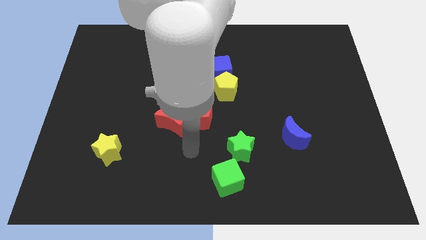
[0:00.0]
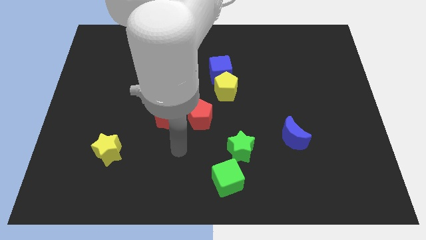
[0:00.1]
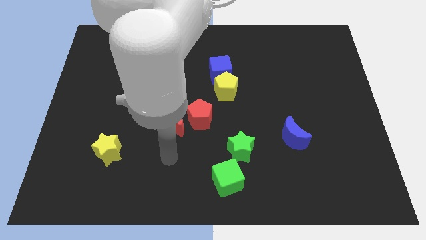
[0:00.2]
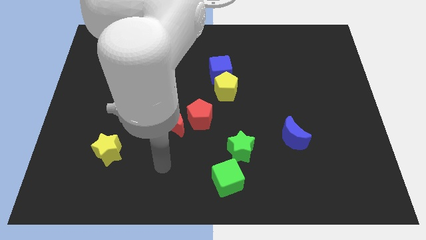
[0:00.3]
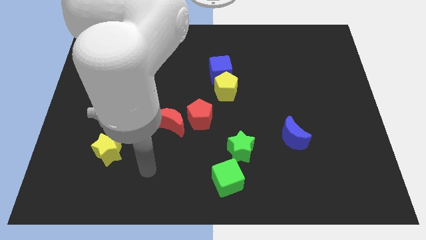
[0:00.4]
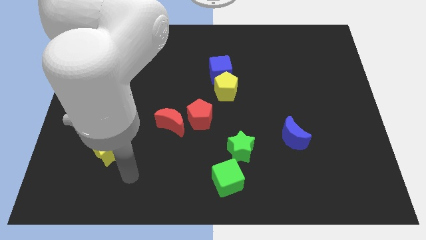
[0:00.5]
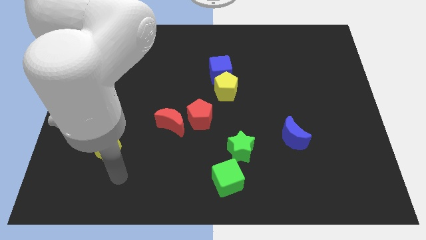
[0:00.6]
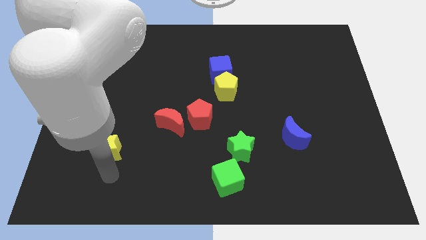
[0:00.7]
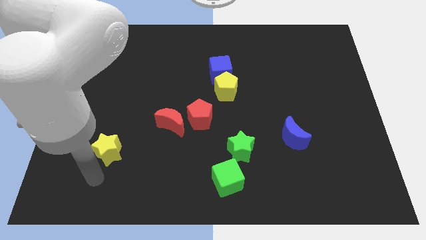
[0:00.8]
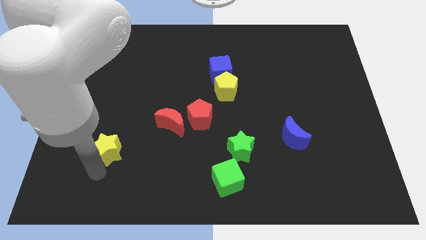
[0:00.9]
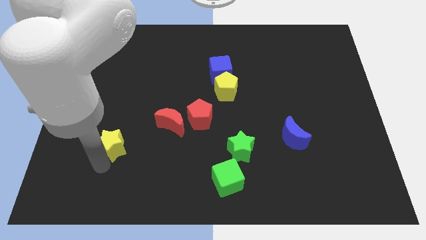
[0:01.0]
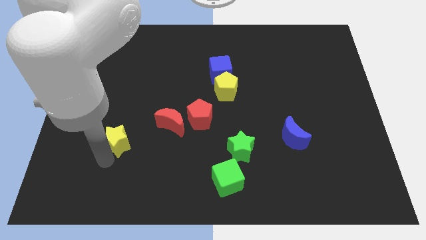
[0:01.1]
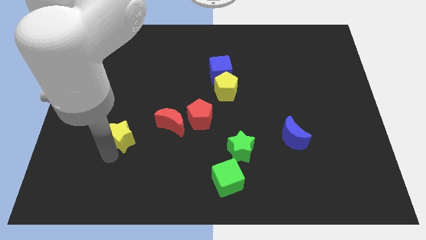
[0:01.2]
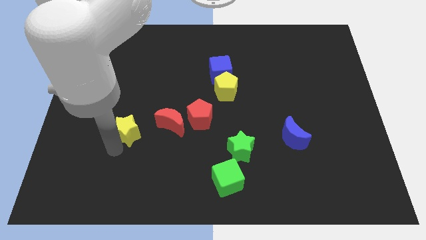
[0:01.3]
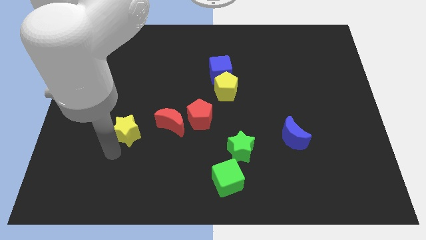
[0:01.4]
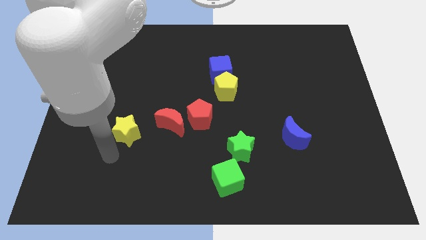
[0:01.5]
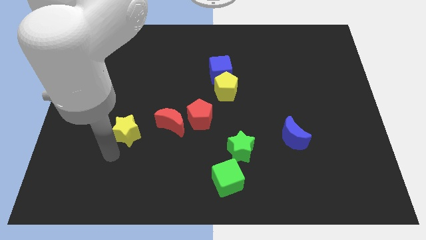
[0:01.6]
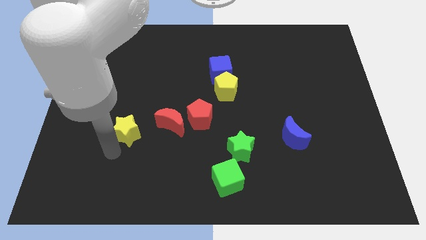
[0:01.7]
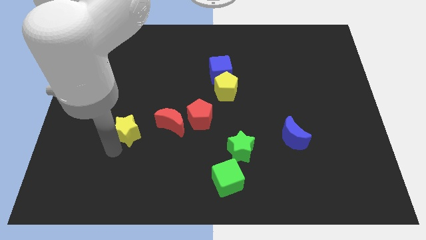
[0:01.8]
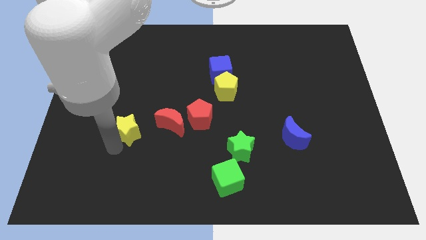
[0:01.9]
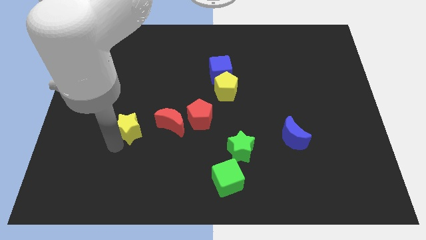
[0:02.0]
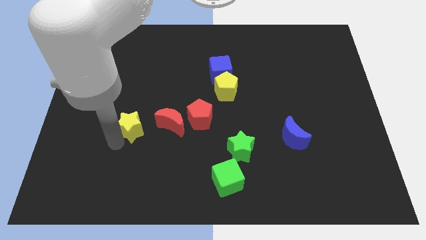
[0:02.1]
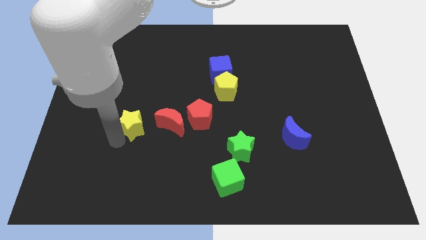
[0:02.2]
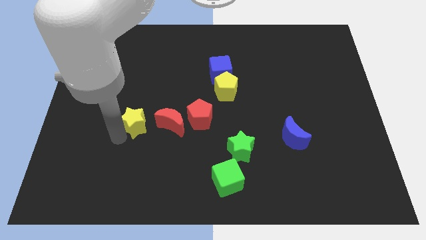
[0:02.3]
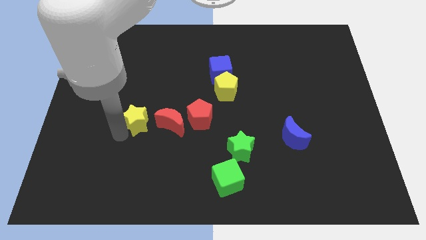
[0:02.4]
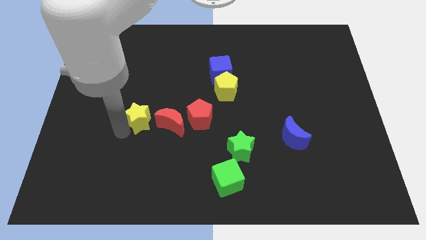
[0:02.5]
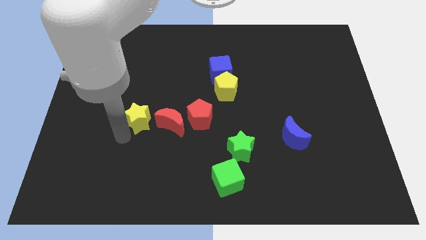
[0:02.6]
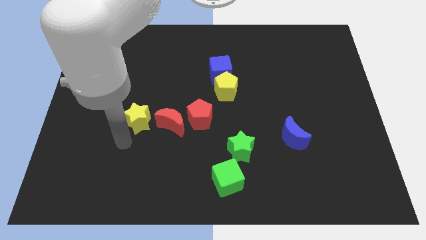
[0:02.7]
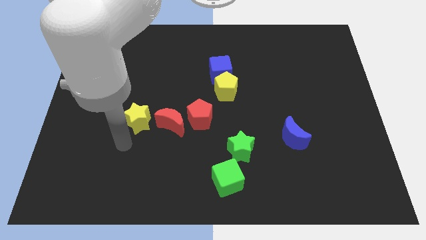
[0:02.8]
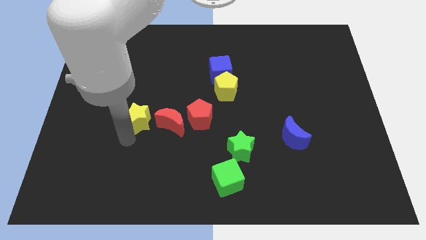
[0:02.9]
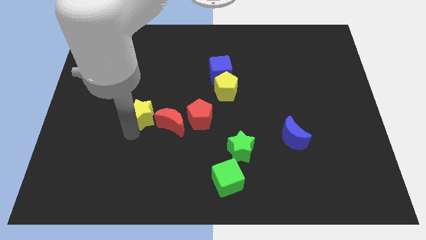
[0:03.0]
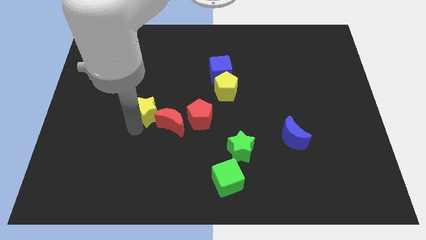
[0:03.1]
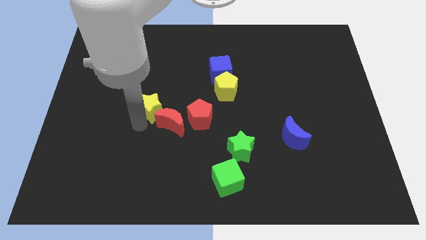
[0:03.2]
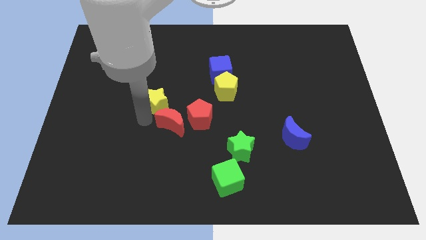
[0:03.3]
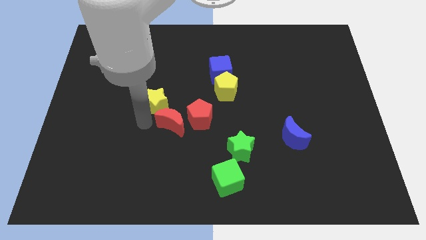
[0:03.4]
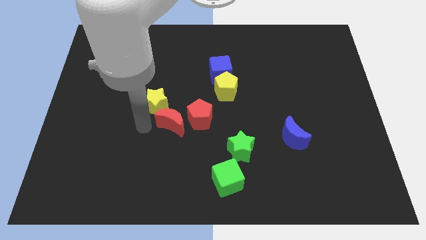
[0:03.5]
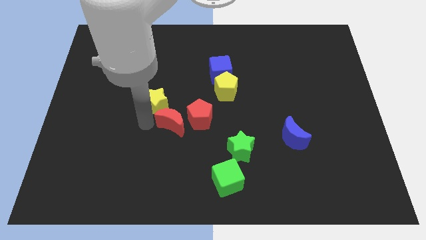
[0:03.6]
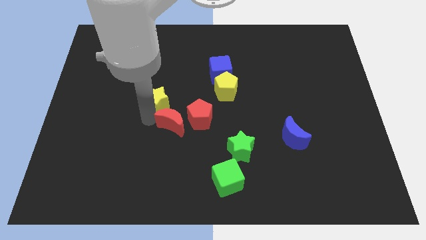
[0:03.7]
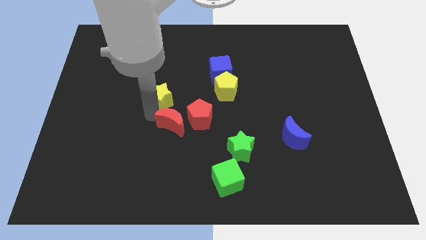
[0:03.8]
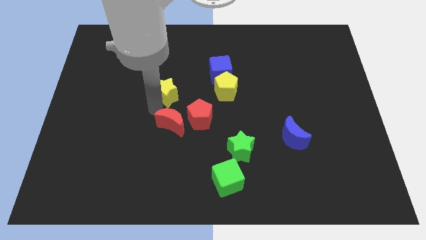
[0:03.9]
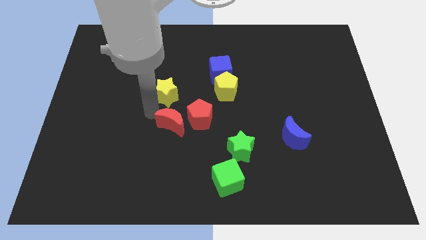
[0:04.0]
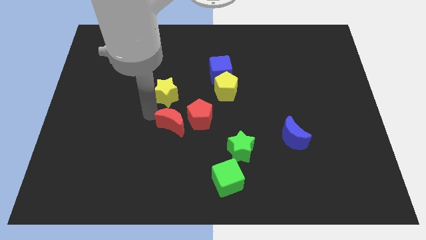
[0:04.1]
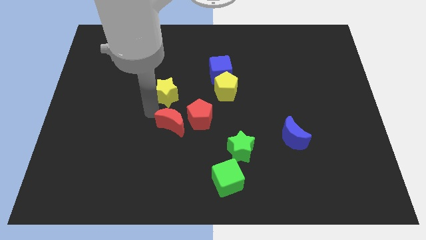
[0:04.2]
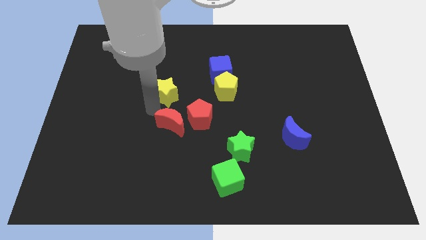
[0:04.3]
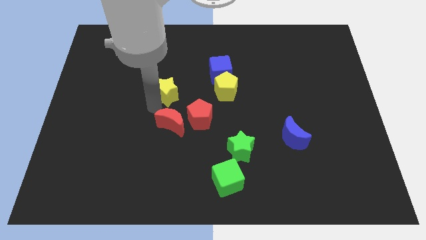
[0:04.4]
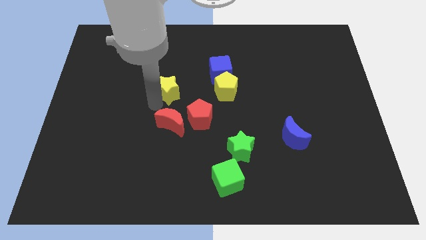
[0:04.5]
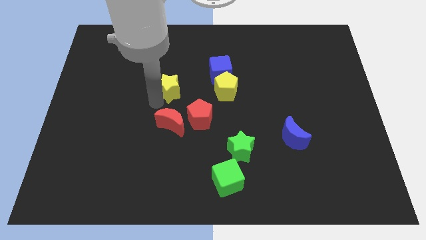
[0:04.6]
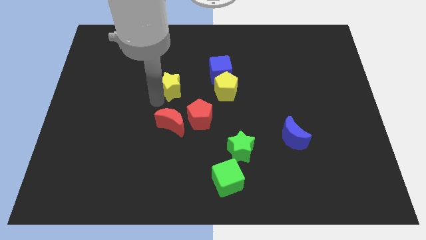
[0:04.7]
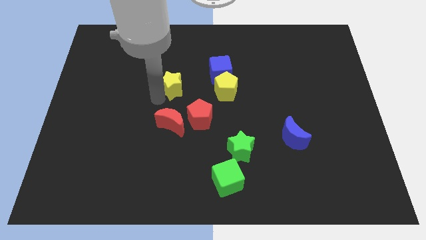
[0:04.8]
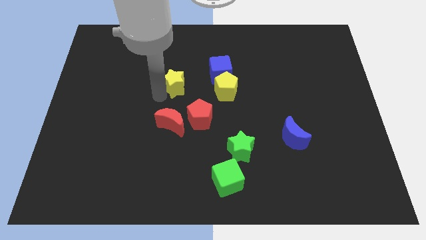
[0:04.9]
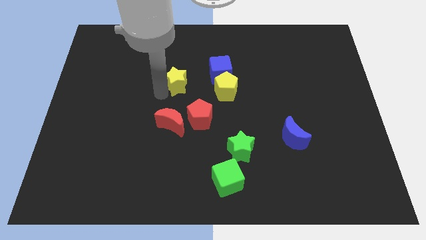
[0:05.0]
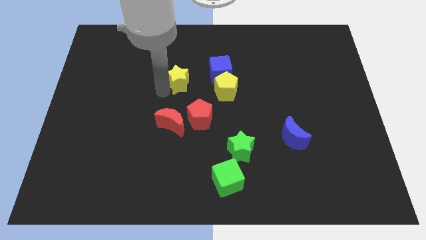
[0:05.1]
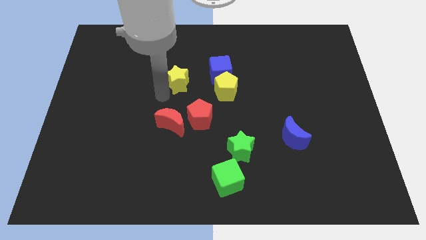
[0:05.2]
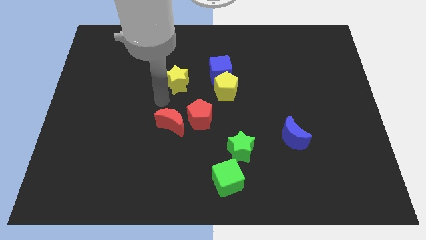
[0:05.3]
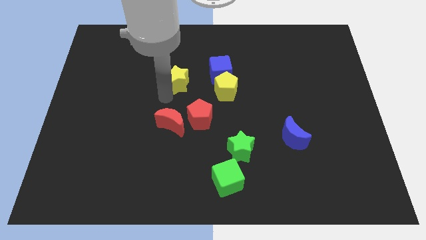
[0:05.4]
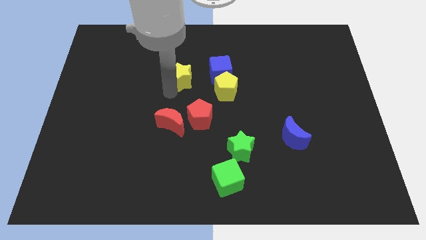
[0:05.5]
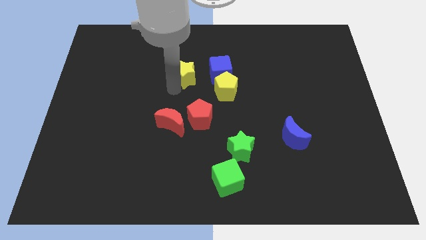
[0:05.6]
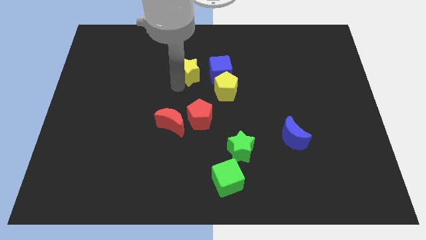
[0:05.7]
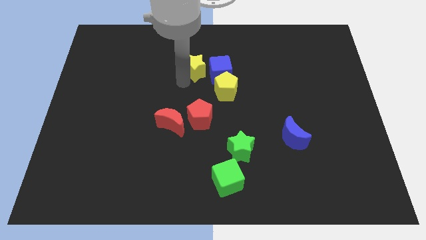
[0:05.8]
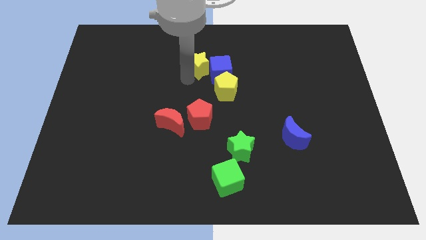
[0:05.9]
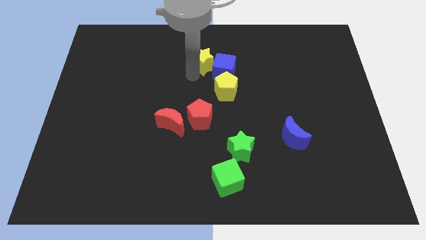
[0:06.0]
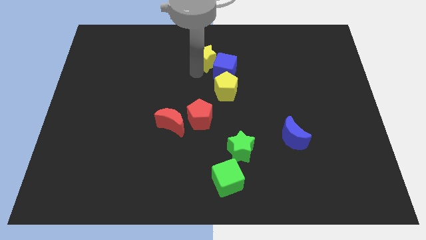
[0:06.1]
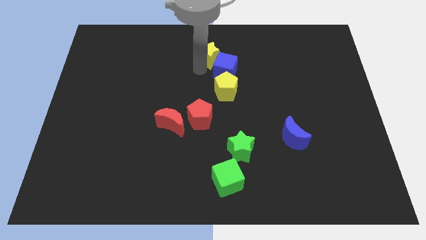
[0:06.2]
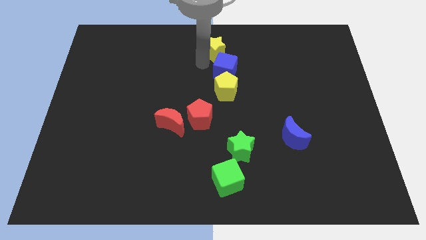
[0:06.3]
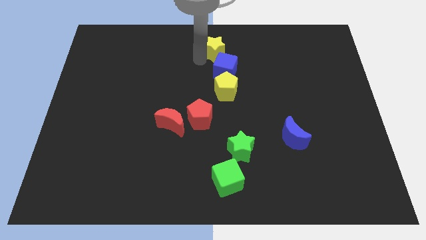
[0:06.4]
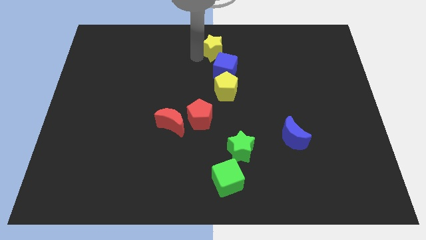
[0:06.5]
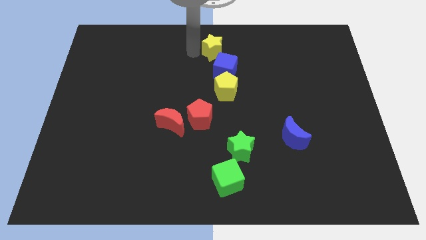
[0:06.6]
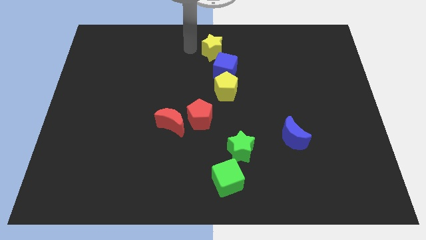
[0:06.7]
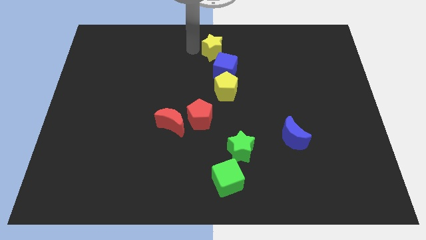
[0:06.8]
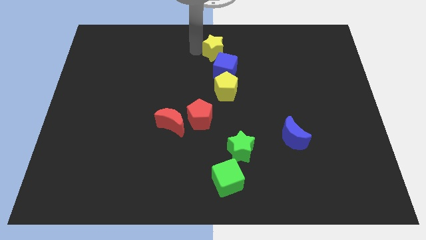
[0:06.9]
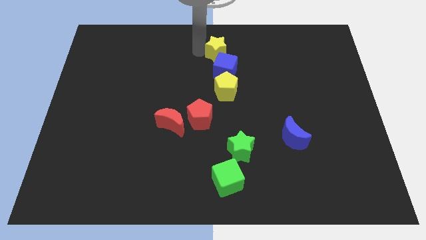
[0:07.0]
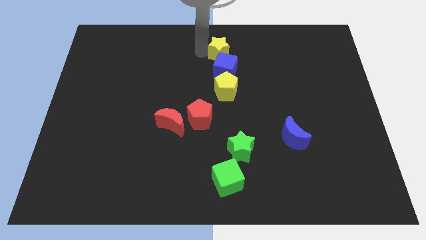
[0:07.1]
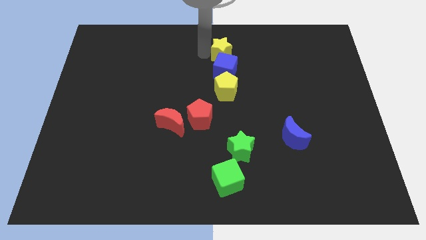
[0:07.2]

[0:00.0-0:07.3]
push the yellow star diagonally up and to the right of the blue cube

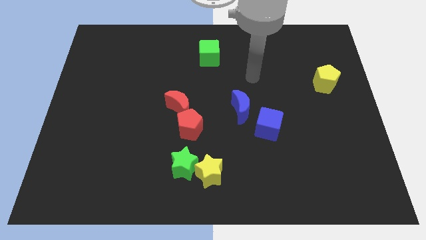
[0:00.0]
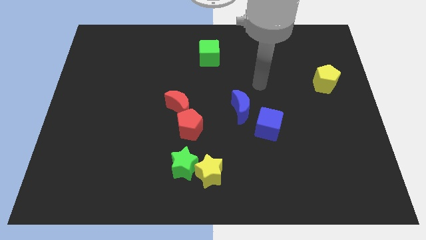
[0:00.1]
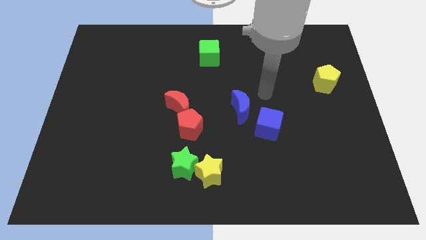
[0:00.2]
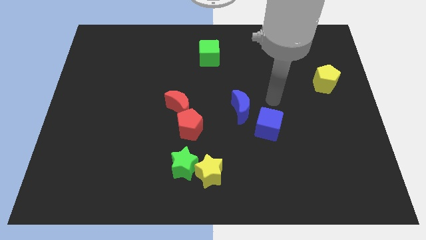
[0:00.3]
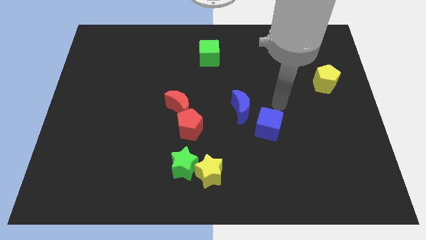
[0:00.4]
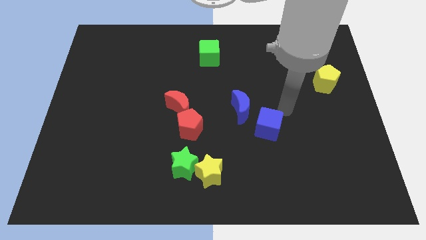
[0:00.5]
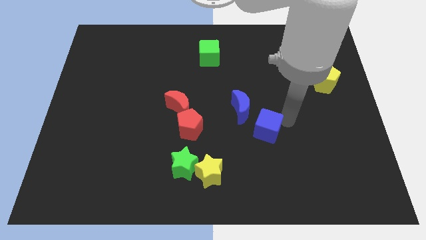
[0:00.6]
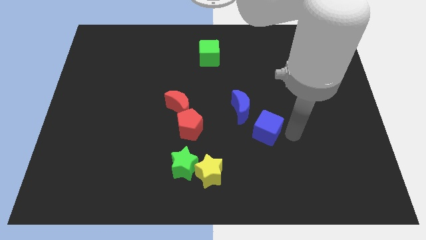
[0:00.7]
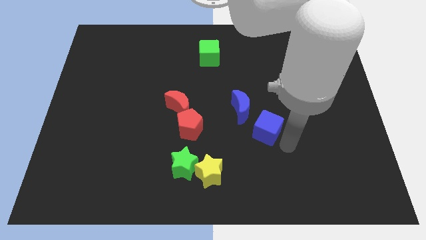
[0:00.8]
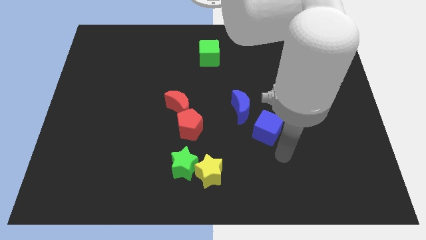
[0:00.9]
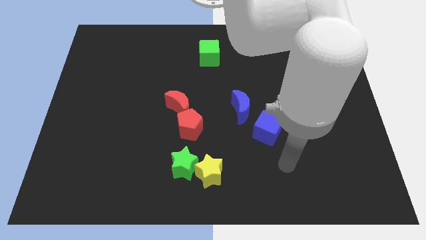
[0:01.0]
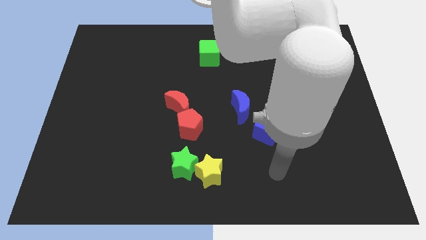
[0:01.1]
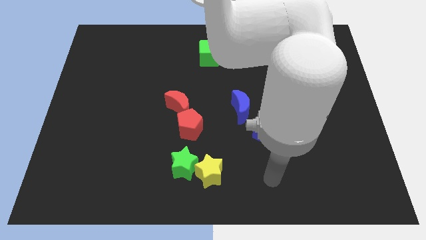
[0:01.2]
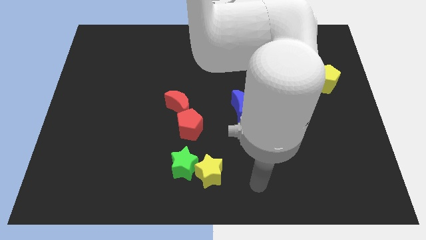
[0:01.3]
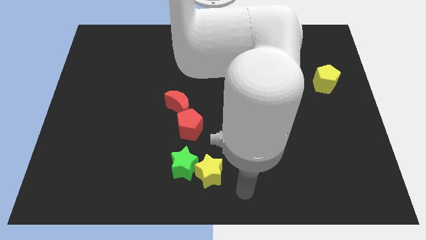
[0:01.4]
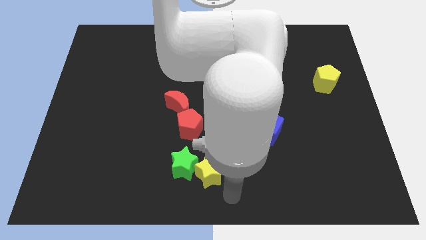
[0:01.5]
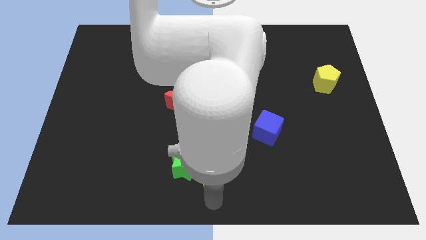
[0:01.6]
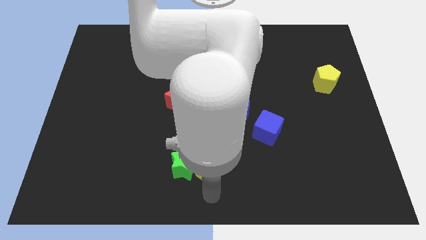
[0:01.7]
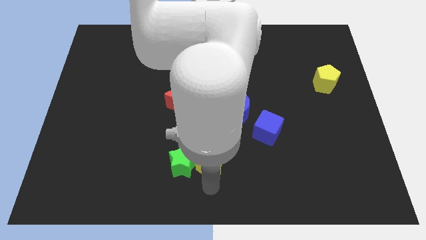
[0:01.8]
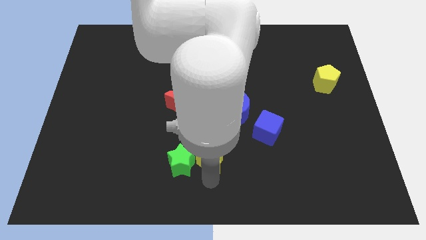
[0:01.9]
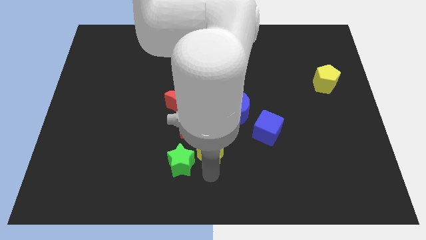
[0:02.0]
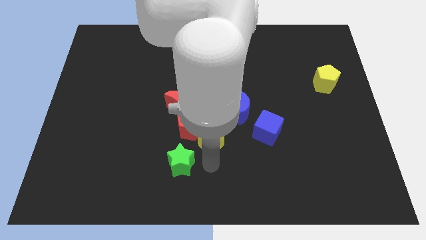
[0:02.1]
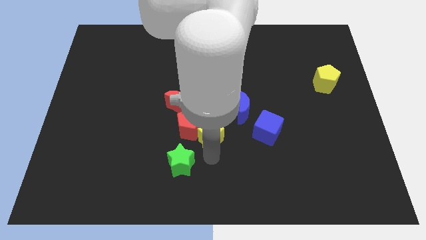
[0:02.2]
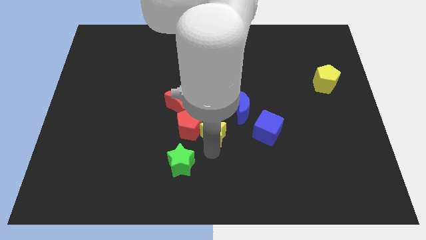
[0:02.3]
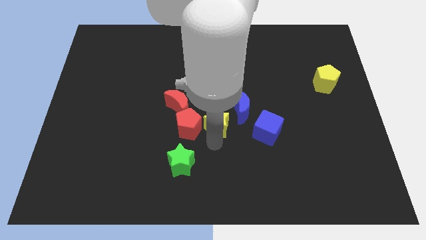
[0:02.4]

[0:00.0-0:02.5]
move the yellow star to the left side of the blue moon
